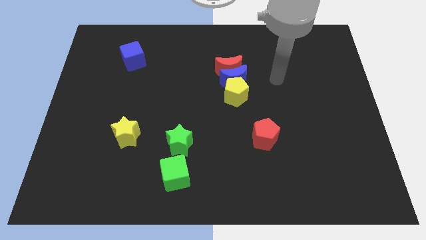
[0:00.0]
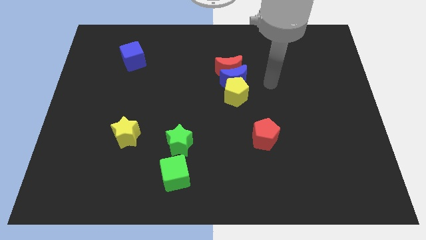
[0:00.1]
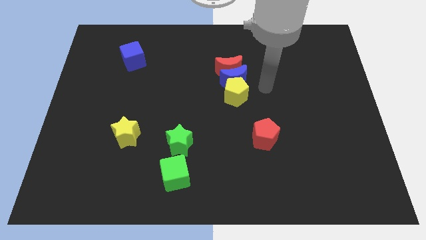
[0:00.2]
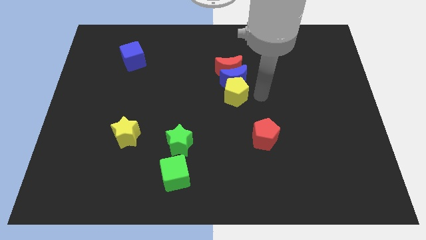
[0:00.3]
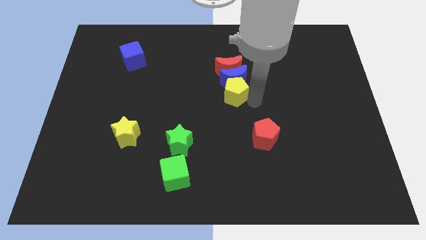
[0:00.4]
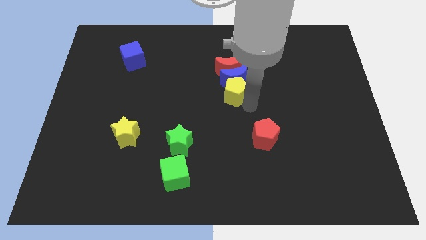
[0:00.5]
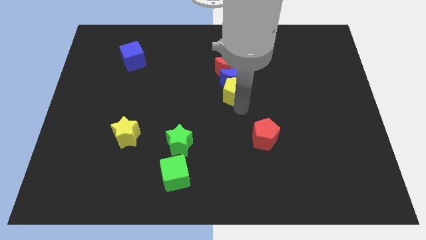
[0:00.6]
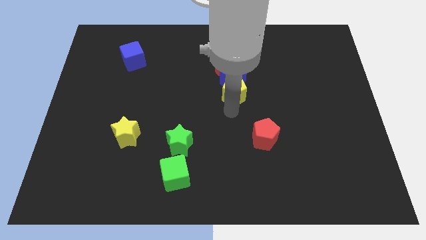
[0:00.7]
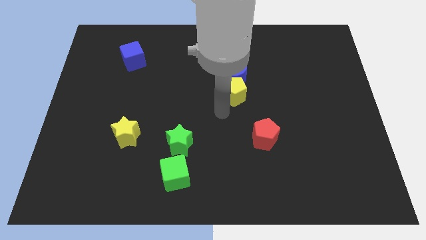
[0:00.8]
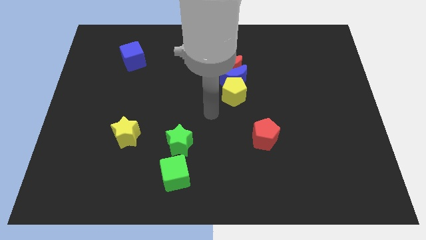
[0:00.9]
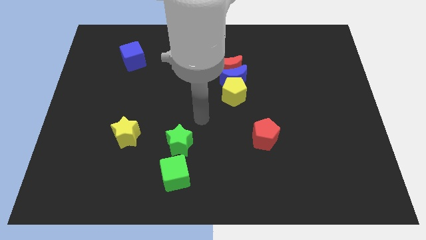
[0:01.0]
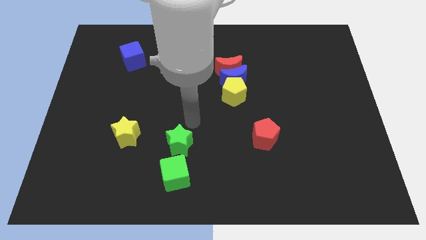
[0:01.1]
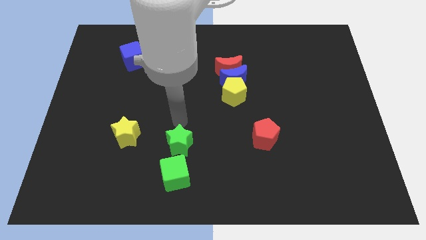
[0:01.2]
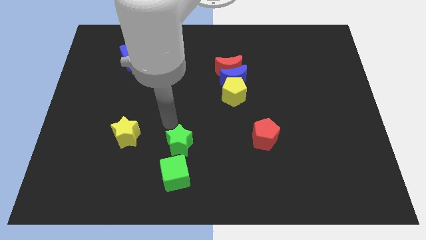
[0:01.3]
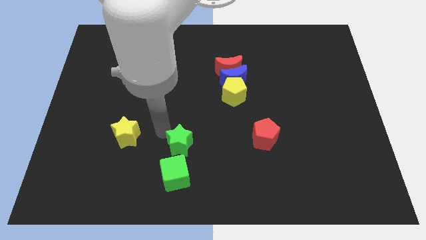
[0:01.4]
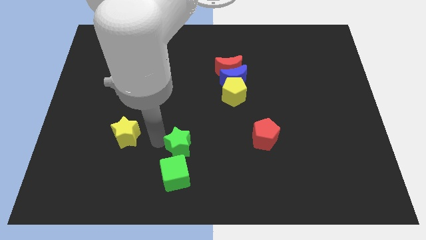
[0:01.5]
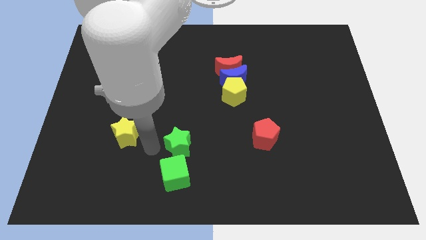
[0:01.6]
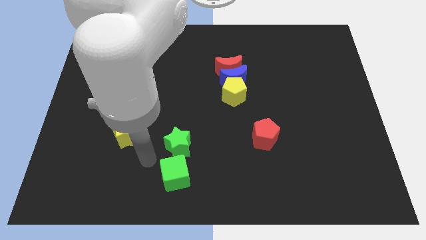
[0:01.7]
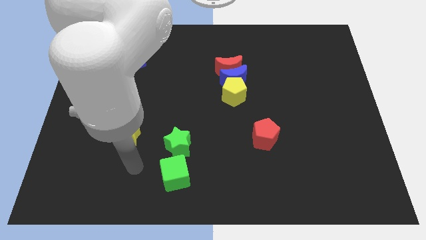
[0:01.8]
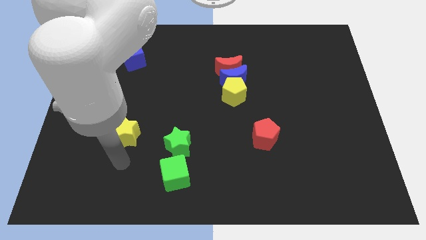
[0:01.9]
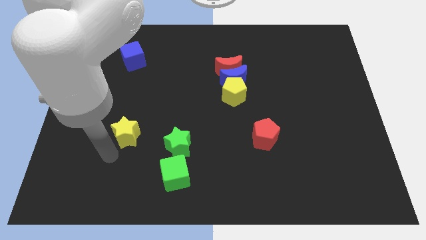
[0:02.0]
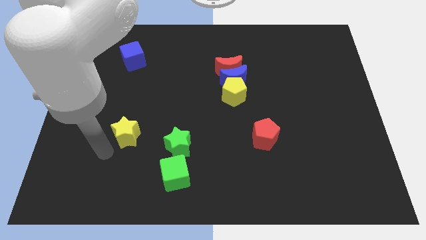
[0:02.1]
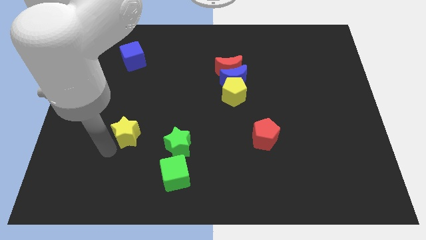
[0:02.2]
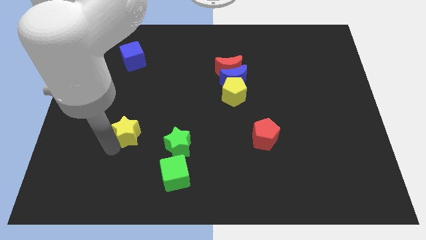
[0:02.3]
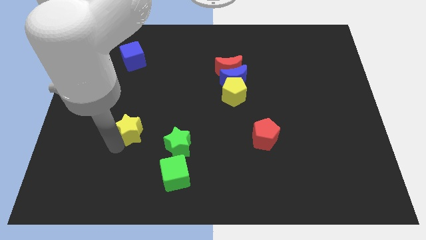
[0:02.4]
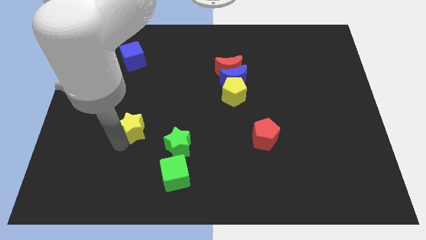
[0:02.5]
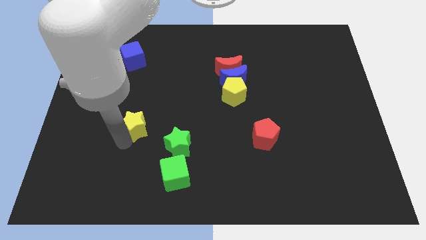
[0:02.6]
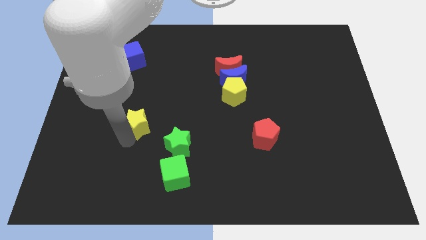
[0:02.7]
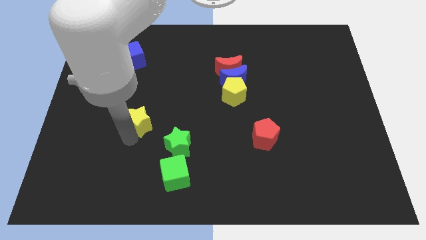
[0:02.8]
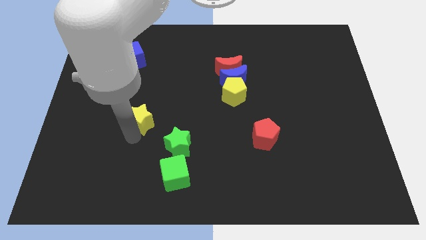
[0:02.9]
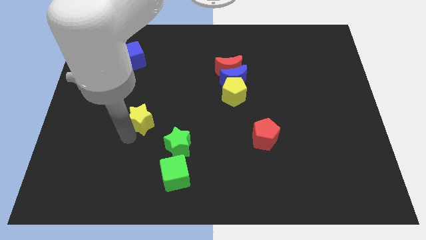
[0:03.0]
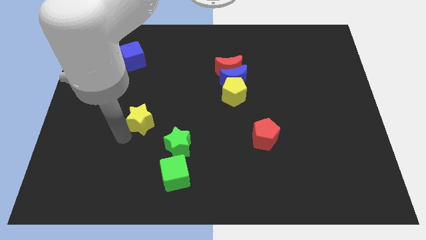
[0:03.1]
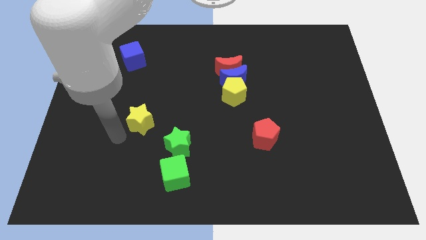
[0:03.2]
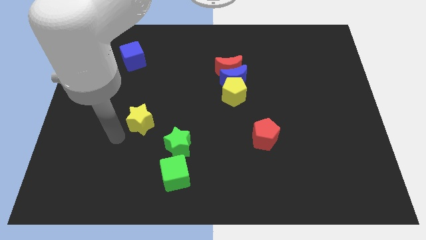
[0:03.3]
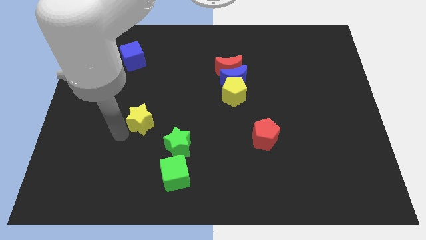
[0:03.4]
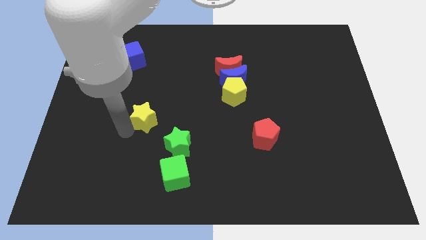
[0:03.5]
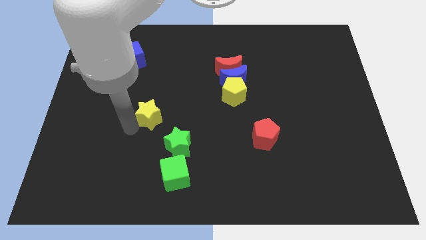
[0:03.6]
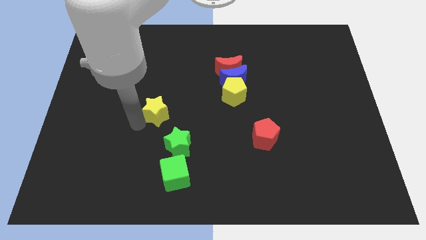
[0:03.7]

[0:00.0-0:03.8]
slide the yellow star slightly up and right diagonally

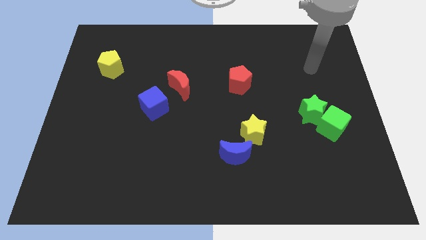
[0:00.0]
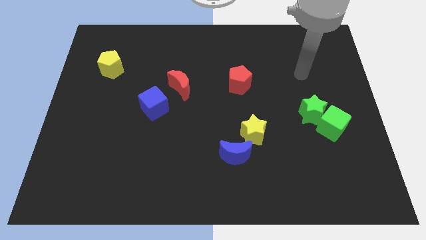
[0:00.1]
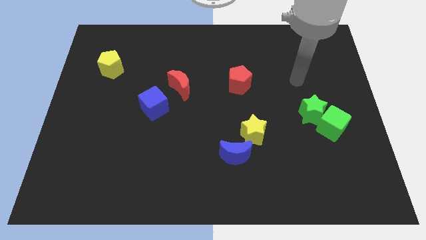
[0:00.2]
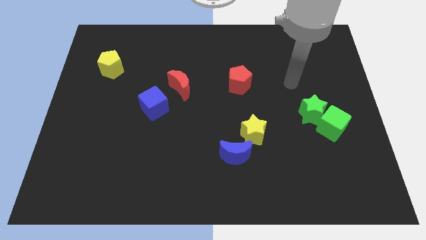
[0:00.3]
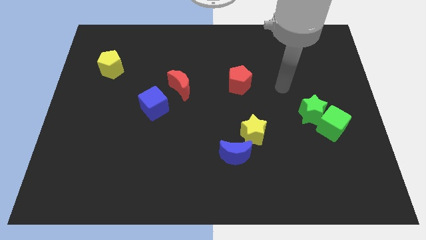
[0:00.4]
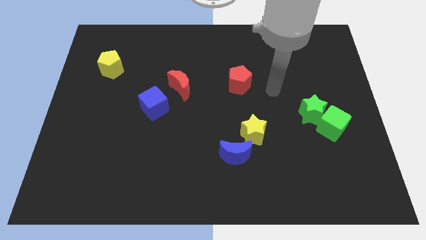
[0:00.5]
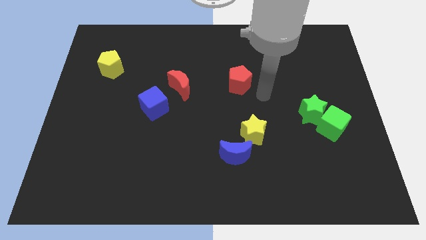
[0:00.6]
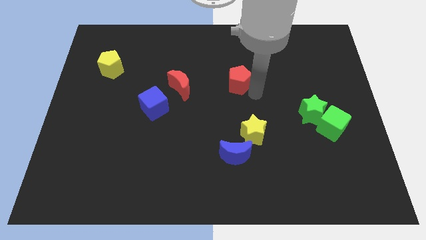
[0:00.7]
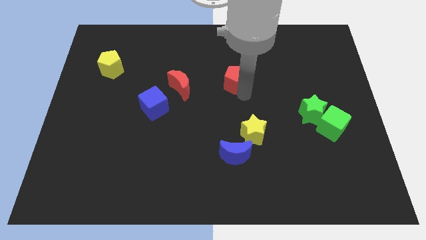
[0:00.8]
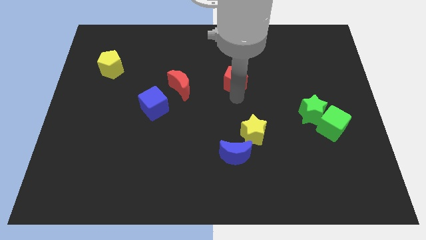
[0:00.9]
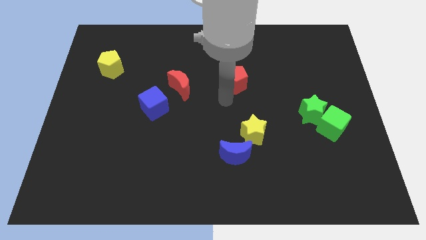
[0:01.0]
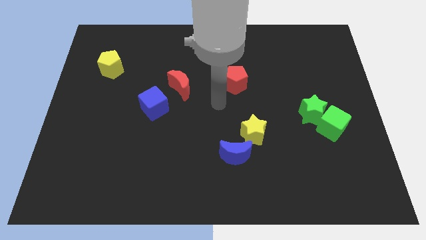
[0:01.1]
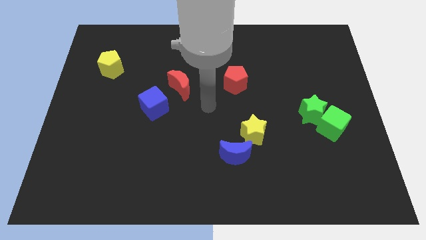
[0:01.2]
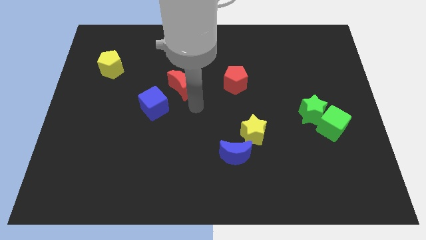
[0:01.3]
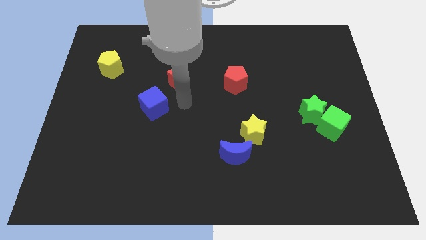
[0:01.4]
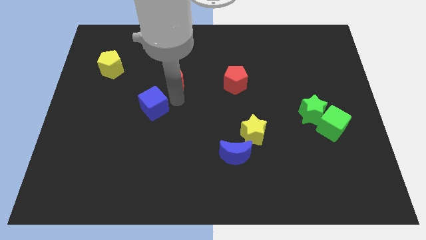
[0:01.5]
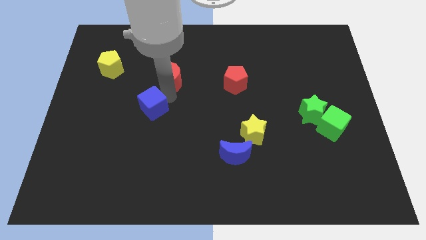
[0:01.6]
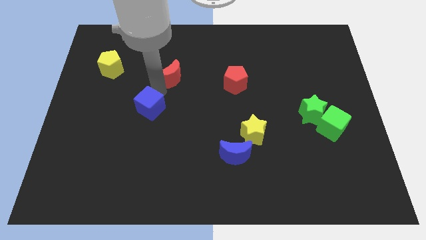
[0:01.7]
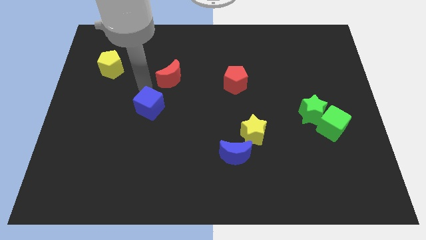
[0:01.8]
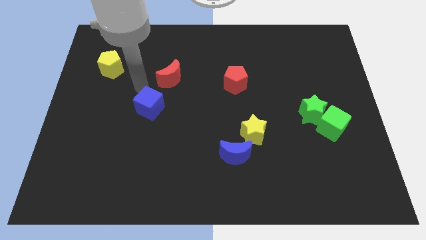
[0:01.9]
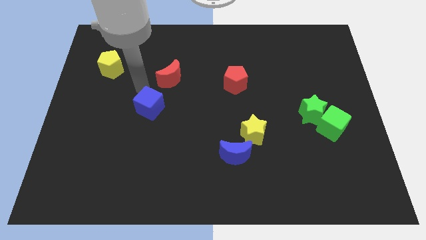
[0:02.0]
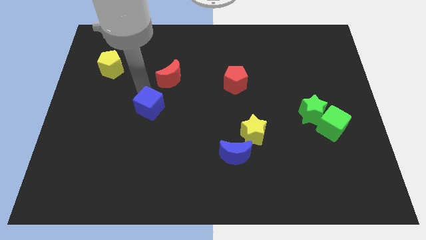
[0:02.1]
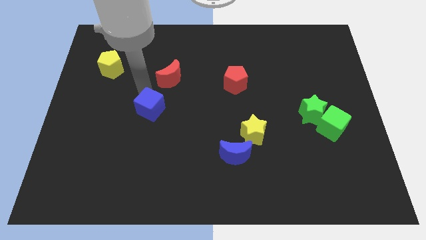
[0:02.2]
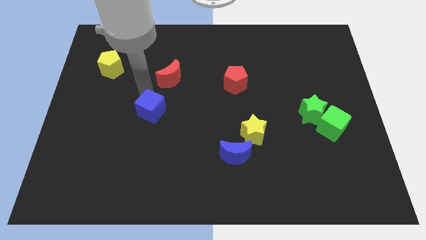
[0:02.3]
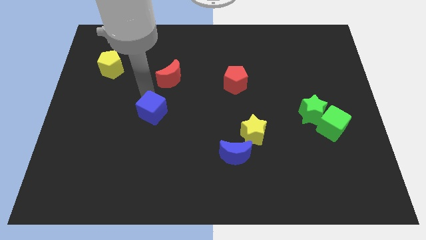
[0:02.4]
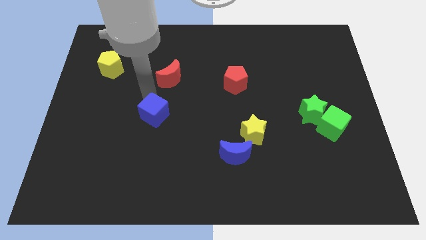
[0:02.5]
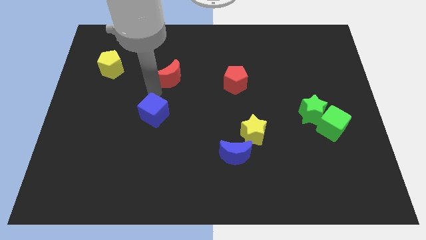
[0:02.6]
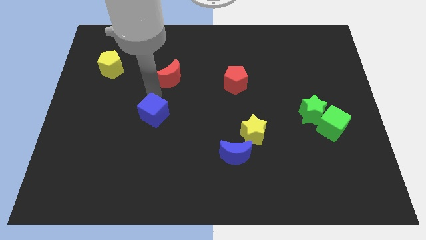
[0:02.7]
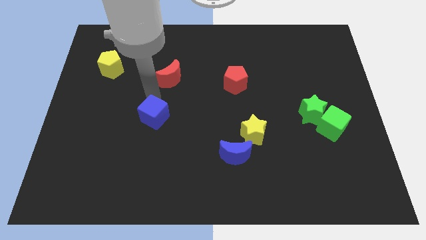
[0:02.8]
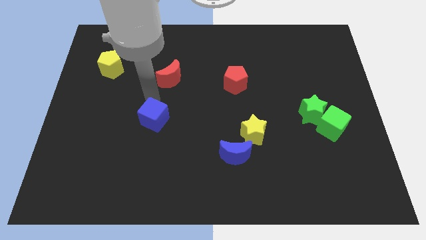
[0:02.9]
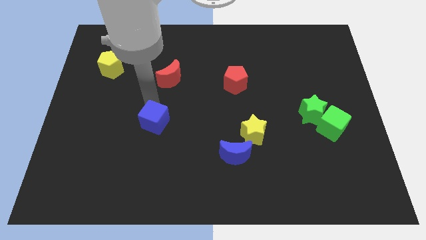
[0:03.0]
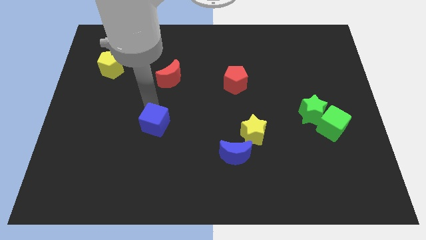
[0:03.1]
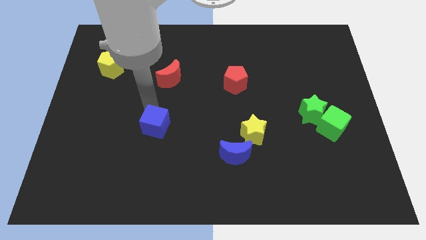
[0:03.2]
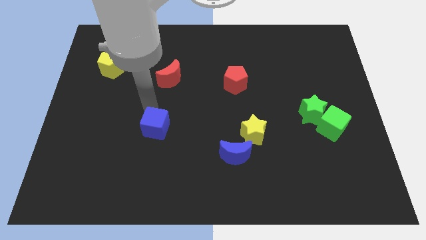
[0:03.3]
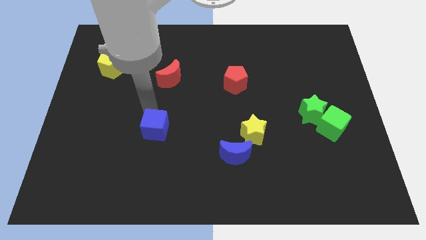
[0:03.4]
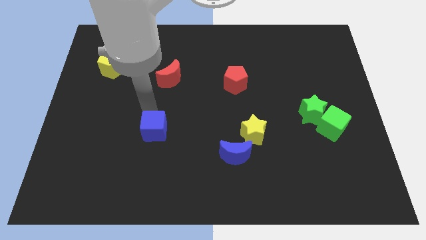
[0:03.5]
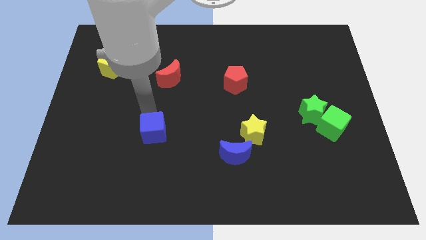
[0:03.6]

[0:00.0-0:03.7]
slightly push the blue cube down

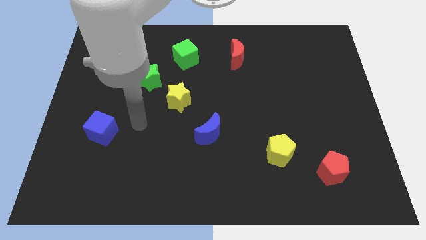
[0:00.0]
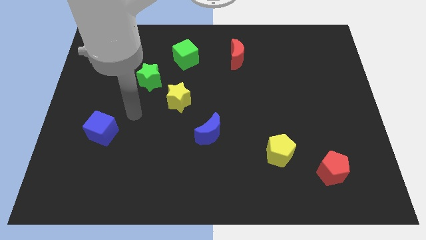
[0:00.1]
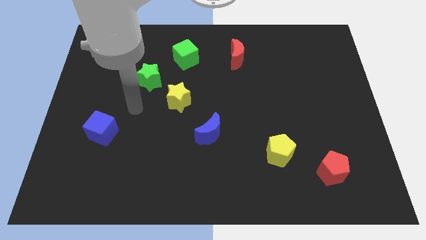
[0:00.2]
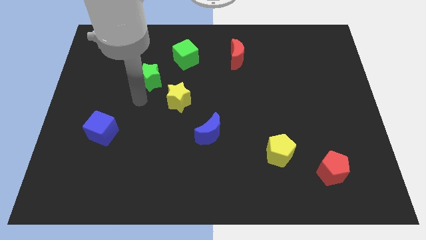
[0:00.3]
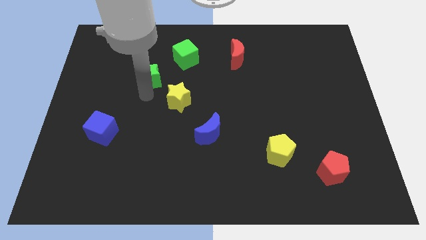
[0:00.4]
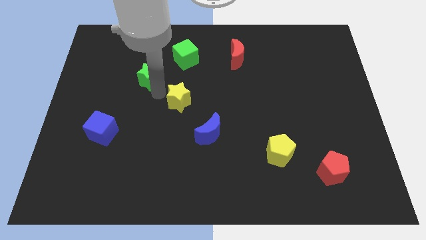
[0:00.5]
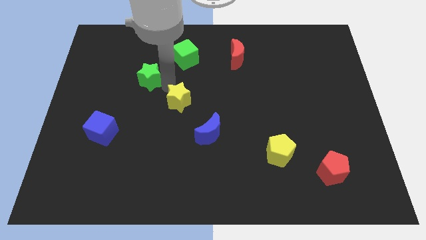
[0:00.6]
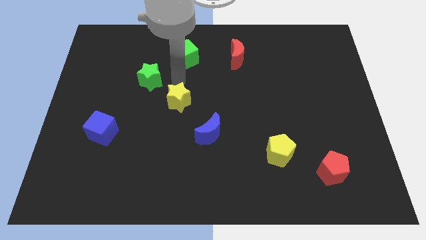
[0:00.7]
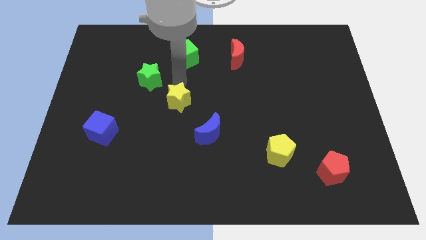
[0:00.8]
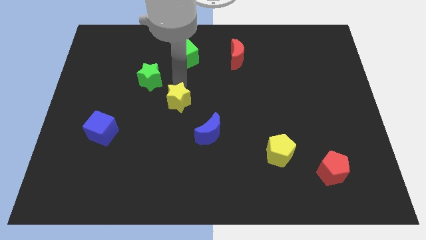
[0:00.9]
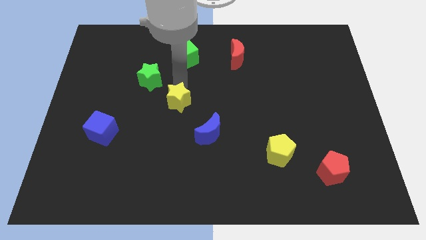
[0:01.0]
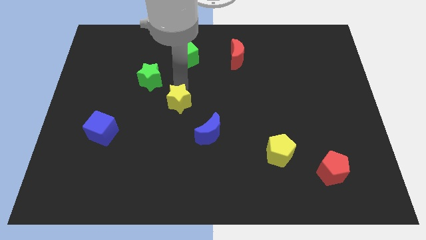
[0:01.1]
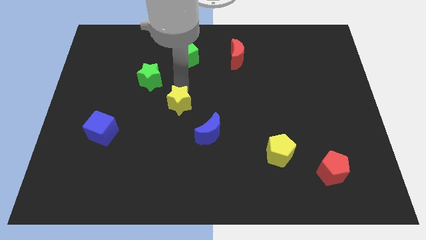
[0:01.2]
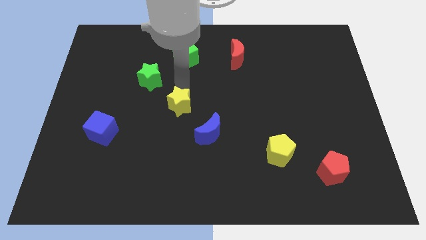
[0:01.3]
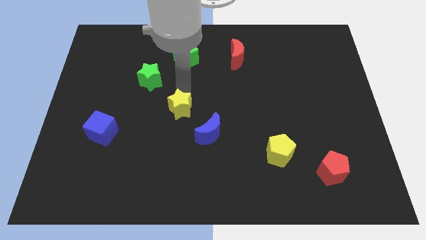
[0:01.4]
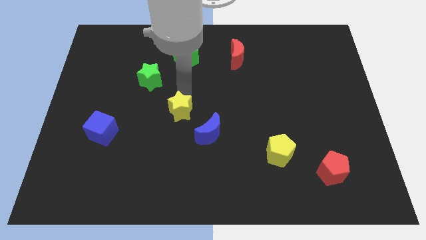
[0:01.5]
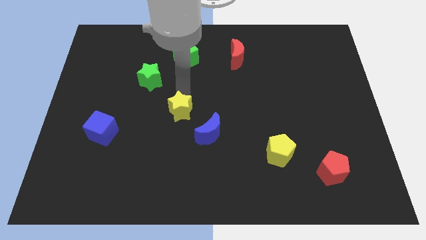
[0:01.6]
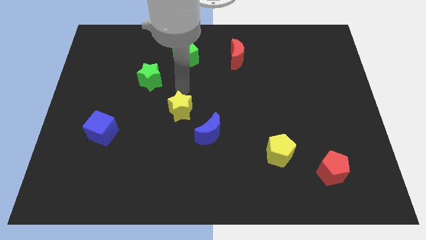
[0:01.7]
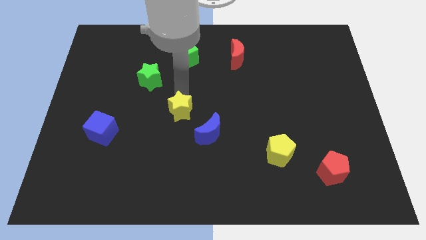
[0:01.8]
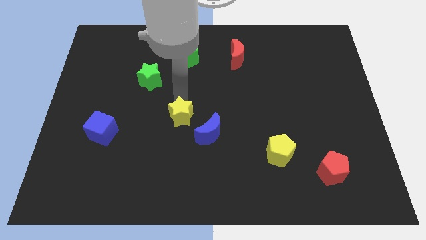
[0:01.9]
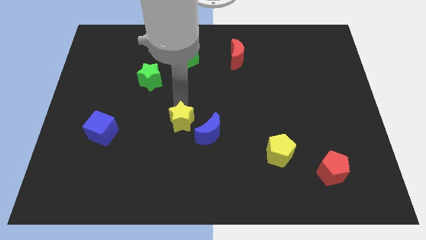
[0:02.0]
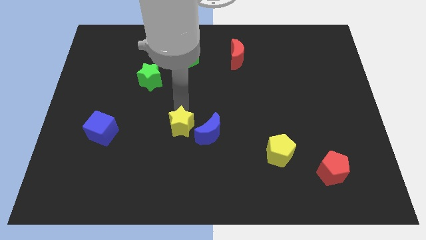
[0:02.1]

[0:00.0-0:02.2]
push the yellow star down slightly
